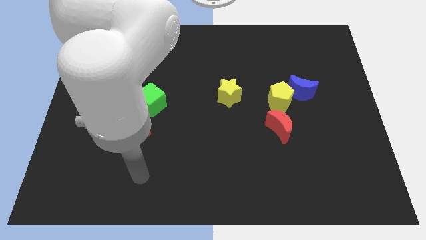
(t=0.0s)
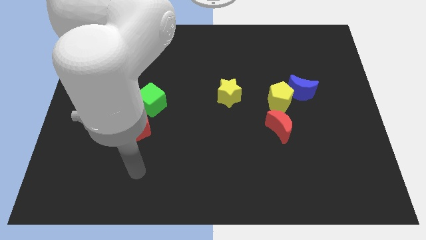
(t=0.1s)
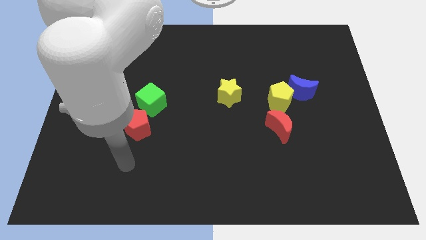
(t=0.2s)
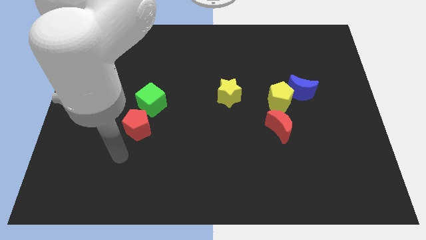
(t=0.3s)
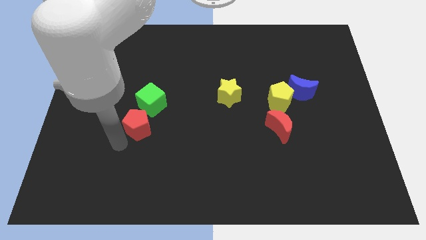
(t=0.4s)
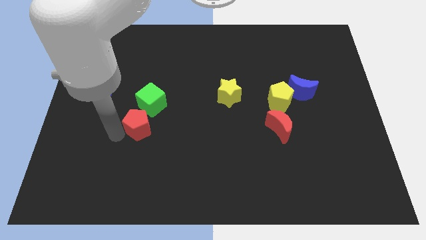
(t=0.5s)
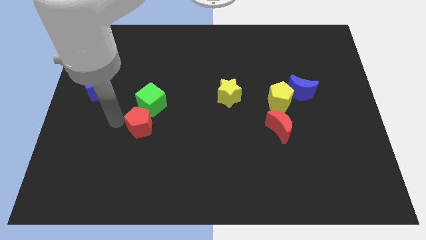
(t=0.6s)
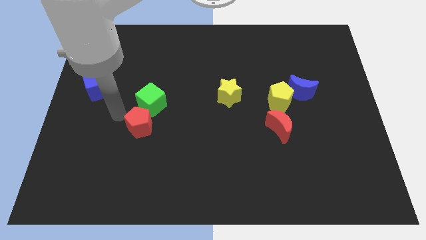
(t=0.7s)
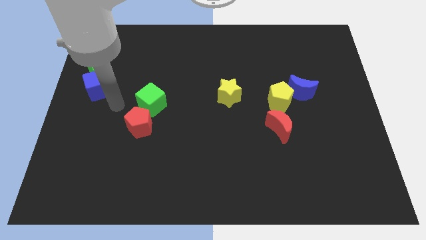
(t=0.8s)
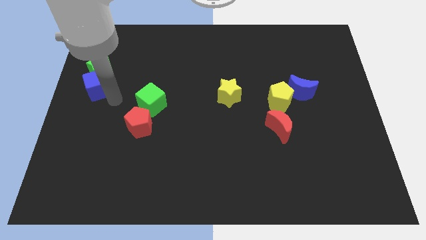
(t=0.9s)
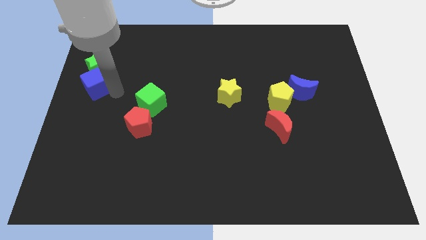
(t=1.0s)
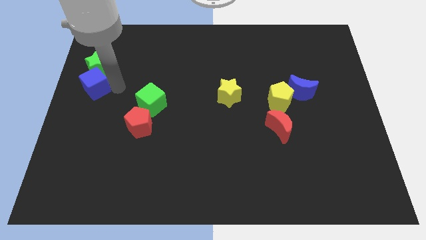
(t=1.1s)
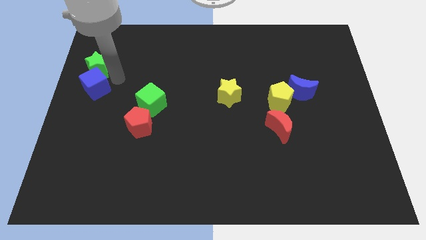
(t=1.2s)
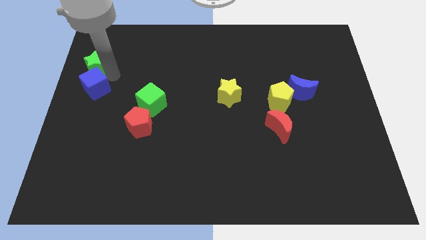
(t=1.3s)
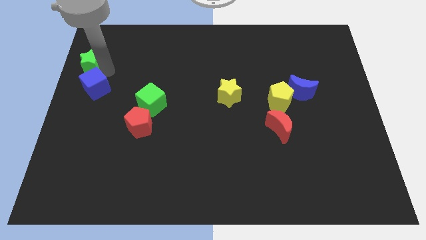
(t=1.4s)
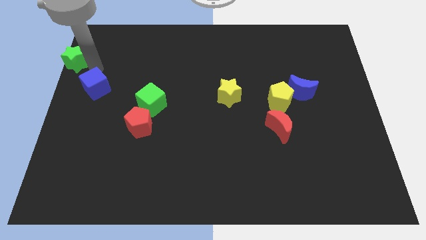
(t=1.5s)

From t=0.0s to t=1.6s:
pull the blue cube apart from the green star

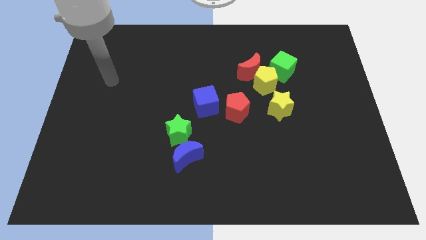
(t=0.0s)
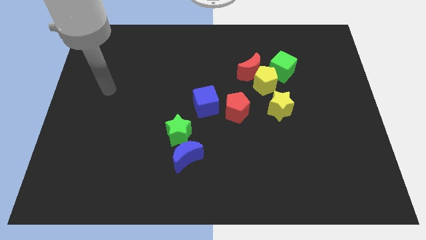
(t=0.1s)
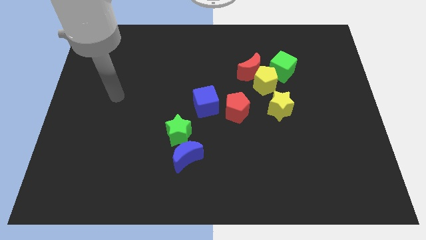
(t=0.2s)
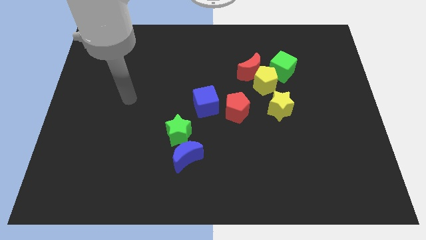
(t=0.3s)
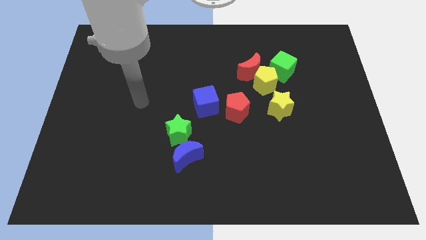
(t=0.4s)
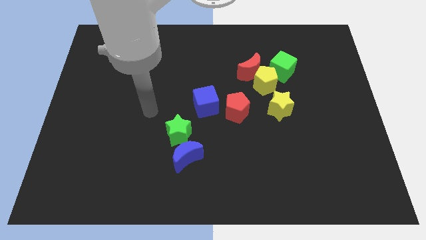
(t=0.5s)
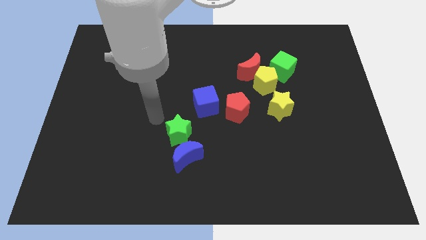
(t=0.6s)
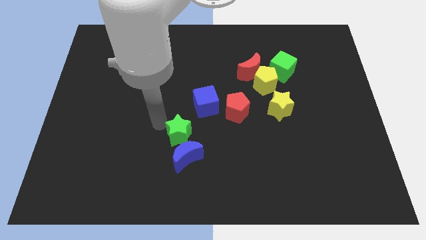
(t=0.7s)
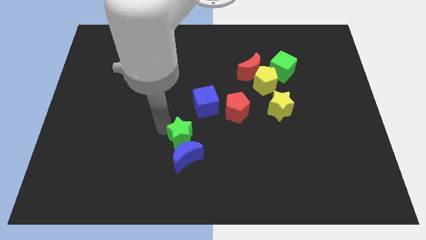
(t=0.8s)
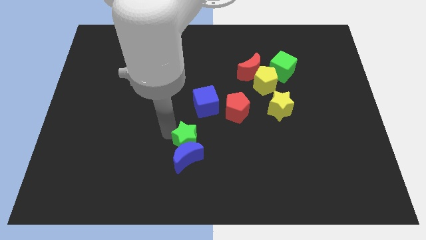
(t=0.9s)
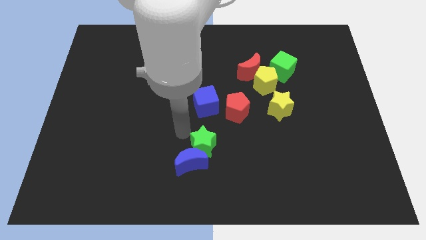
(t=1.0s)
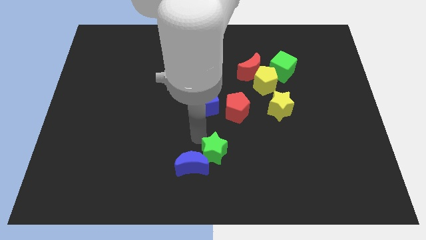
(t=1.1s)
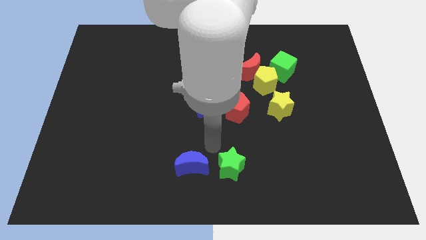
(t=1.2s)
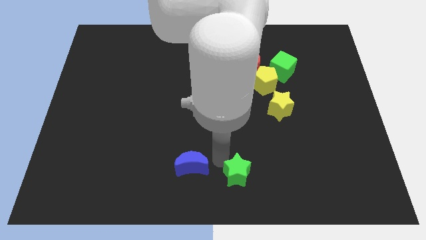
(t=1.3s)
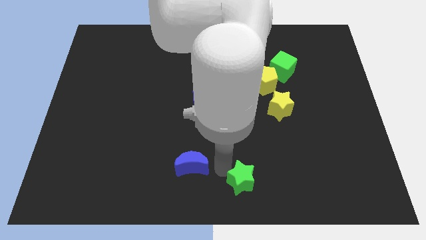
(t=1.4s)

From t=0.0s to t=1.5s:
separate the blue moon from the green star

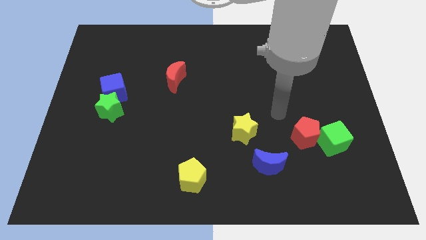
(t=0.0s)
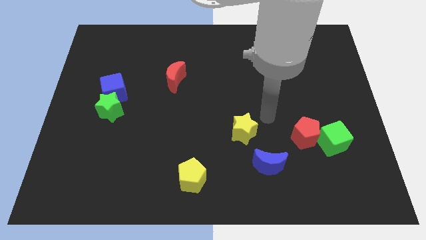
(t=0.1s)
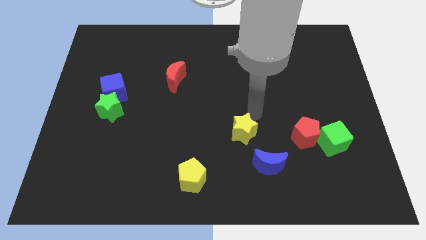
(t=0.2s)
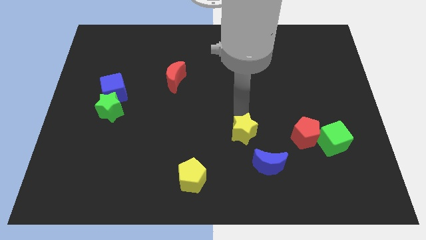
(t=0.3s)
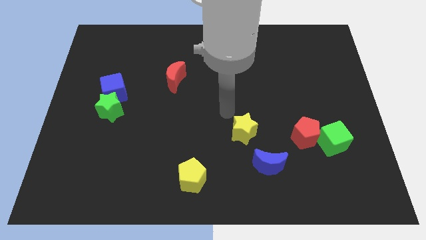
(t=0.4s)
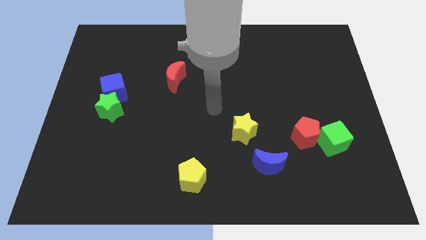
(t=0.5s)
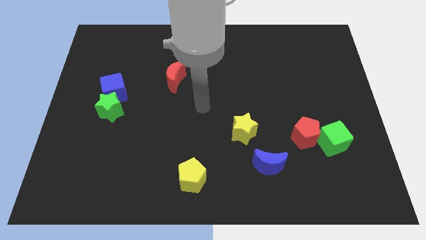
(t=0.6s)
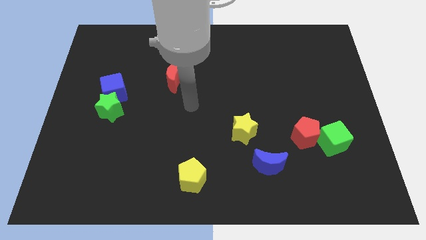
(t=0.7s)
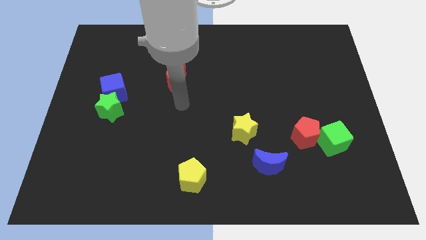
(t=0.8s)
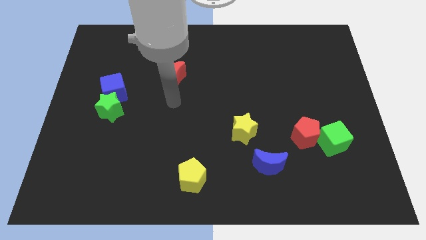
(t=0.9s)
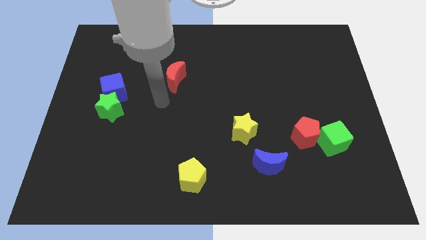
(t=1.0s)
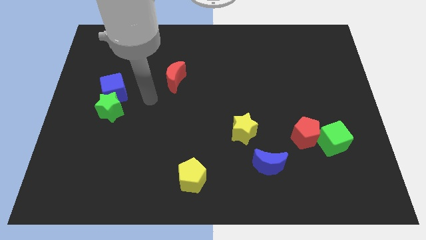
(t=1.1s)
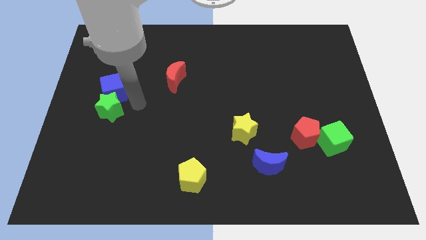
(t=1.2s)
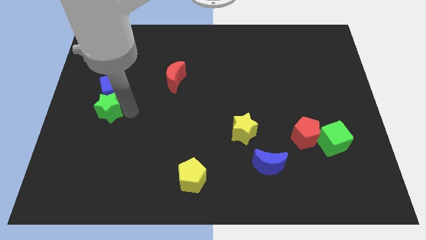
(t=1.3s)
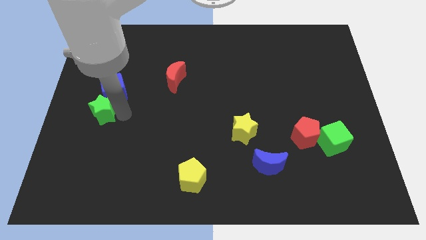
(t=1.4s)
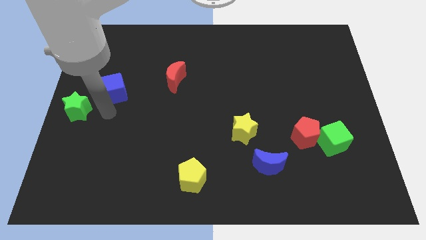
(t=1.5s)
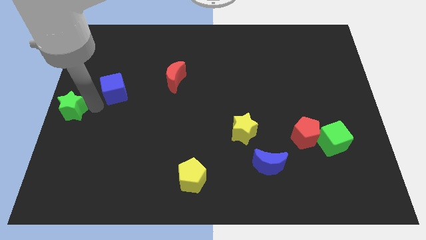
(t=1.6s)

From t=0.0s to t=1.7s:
separate the blue cube from the green star

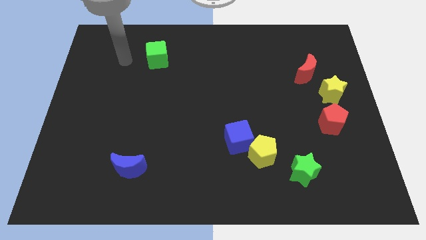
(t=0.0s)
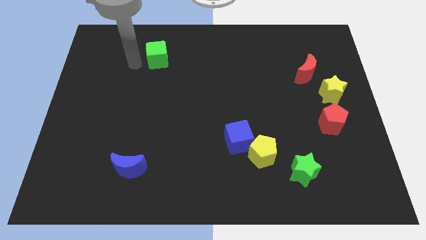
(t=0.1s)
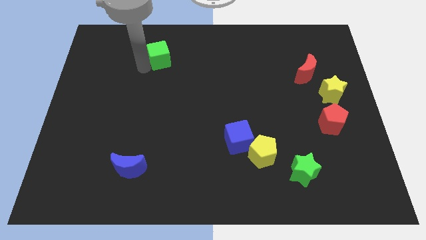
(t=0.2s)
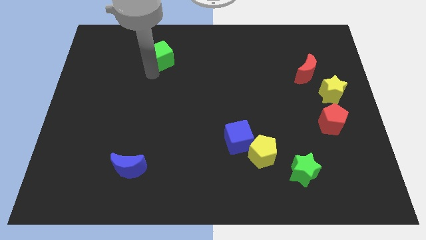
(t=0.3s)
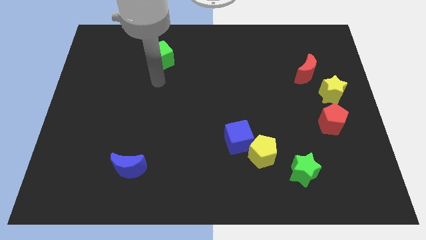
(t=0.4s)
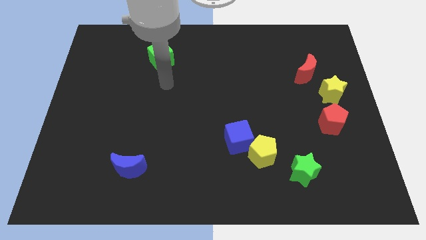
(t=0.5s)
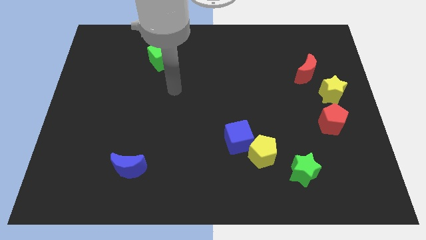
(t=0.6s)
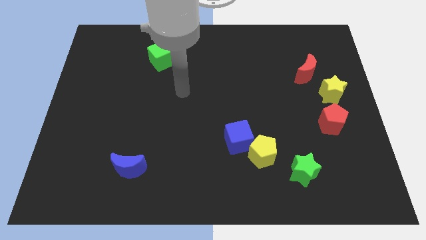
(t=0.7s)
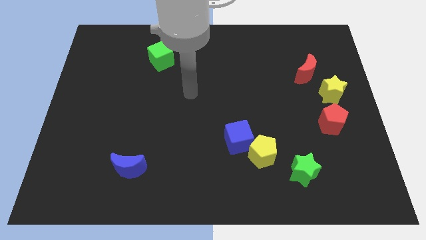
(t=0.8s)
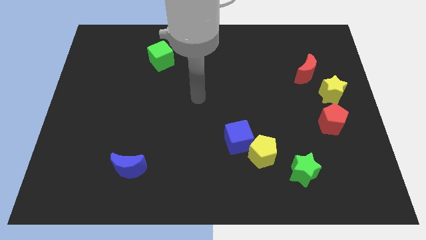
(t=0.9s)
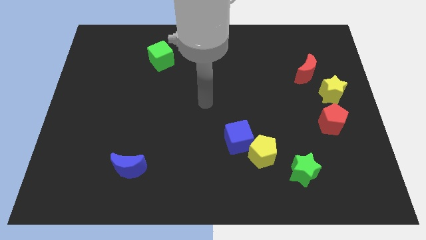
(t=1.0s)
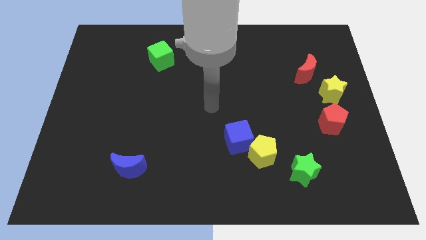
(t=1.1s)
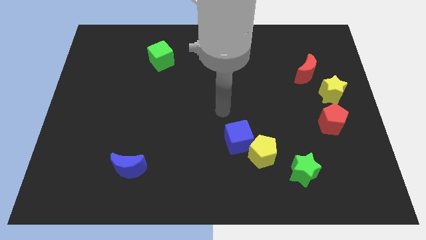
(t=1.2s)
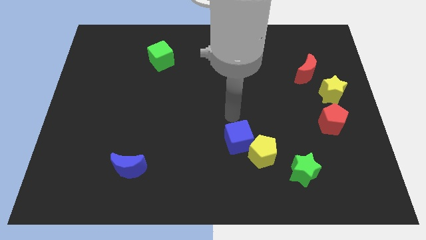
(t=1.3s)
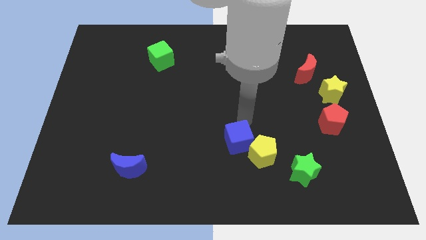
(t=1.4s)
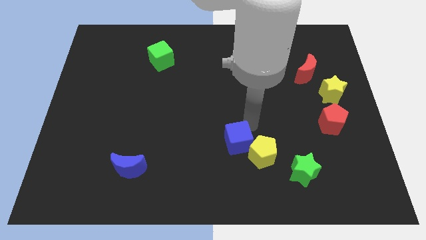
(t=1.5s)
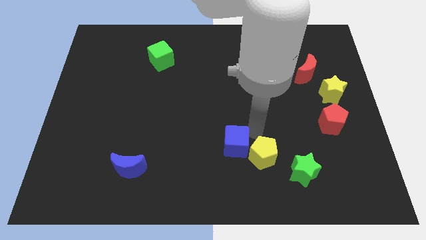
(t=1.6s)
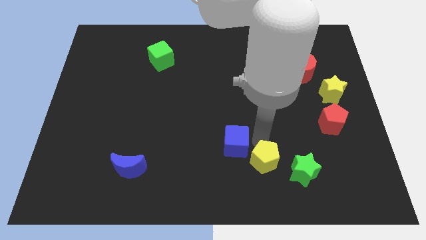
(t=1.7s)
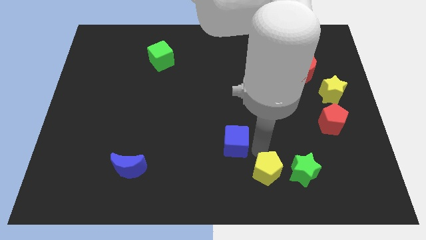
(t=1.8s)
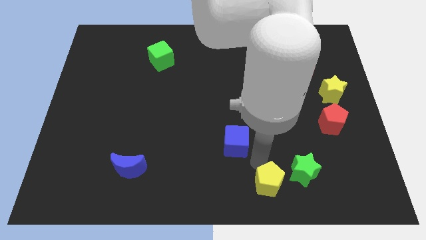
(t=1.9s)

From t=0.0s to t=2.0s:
separate the blue cube from the yellow pentagon

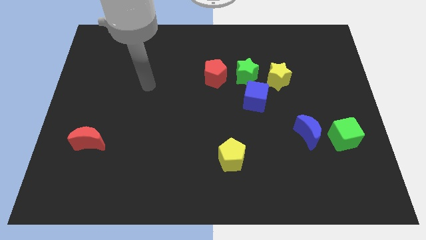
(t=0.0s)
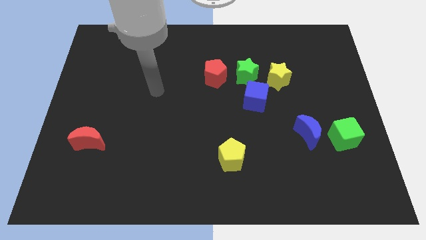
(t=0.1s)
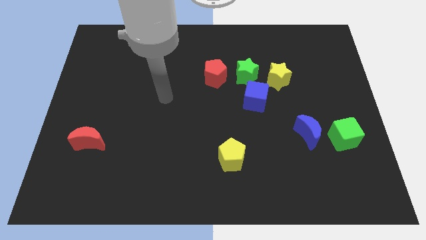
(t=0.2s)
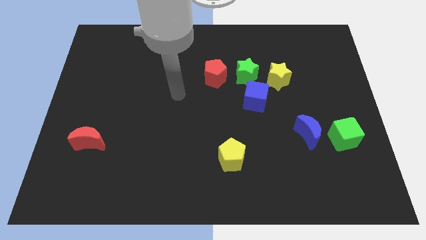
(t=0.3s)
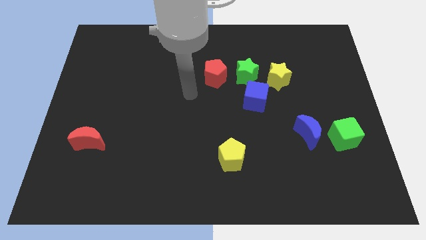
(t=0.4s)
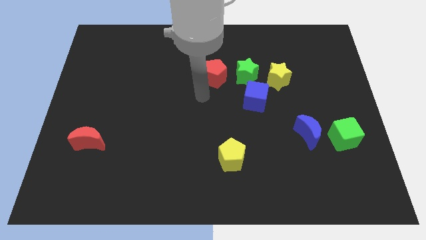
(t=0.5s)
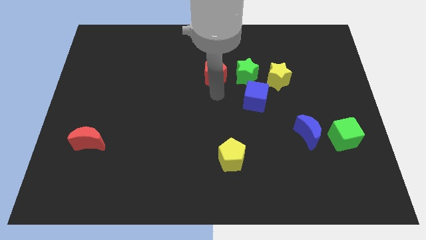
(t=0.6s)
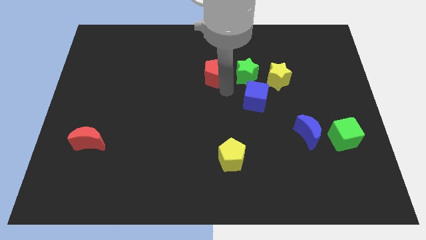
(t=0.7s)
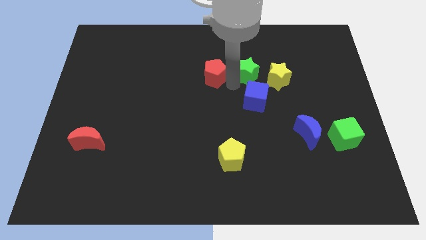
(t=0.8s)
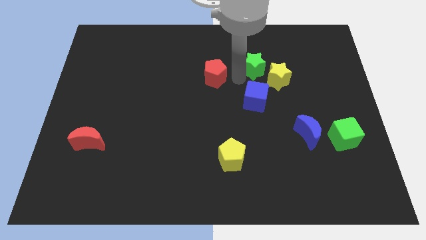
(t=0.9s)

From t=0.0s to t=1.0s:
move the red pentagon away from the green star

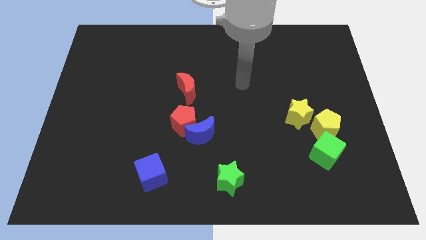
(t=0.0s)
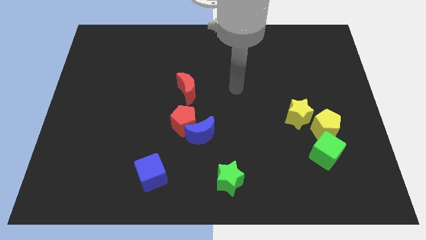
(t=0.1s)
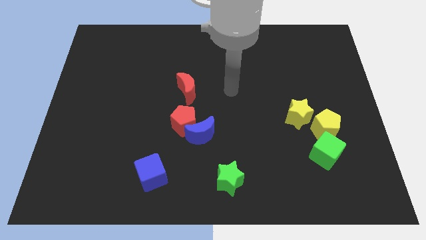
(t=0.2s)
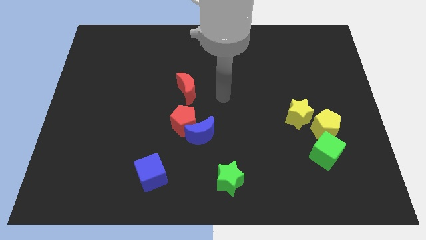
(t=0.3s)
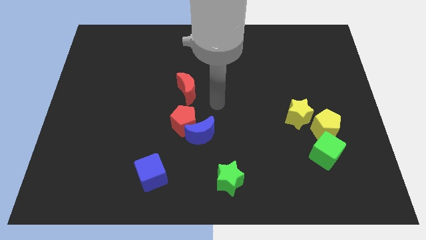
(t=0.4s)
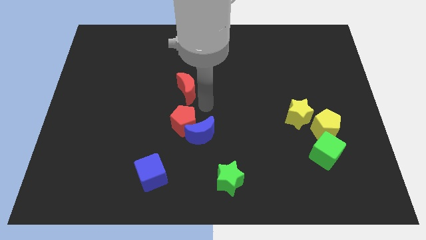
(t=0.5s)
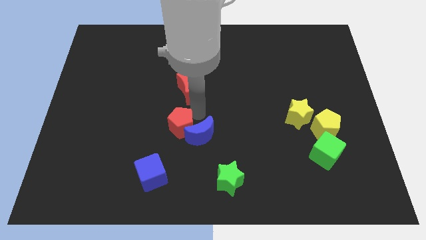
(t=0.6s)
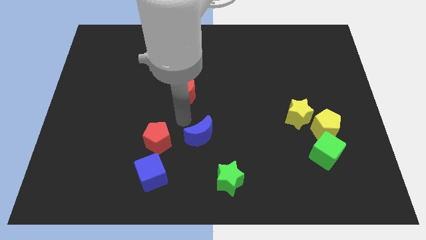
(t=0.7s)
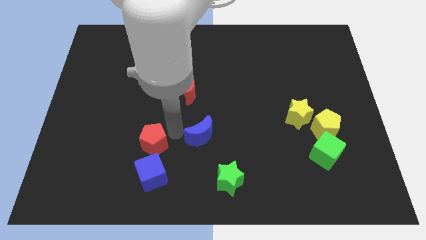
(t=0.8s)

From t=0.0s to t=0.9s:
separate the blue moon from the red pentagon

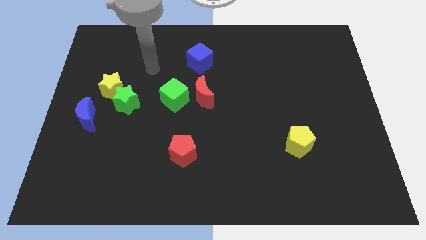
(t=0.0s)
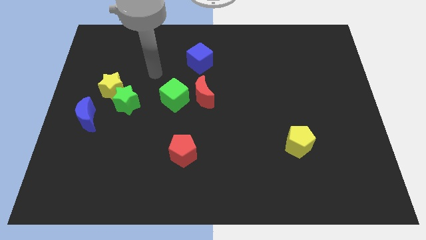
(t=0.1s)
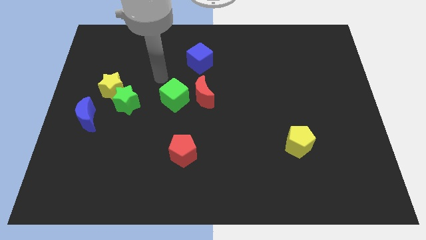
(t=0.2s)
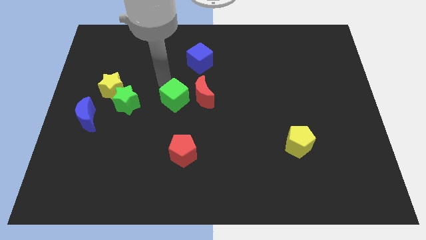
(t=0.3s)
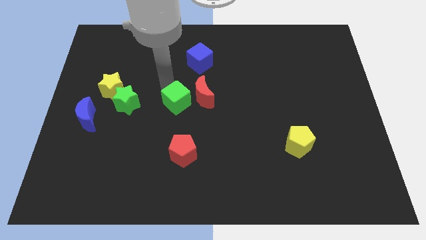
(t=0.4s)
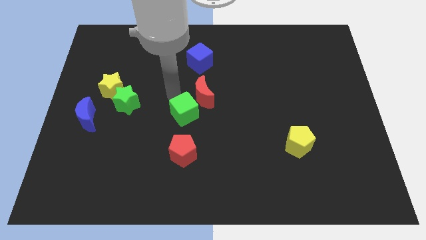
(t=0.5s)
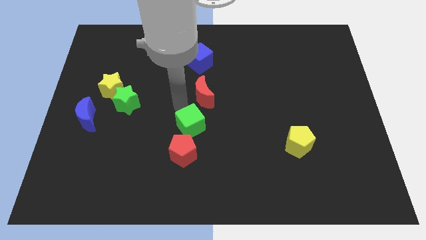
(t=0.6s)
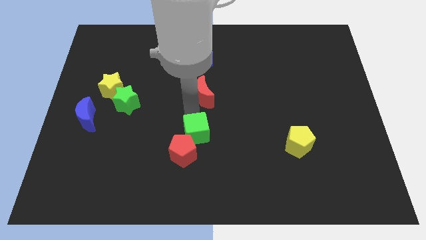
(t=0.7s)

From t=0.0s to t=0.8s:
pull the red moon apart from the green cube
